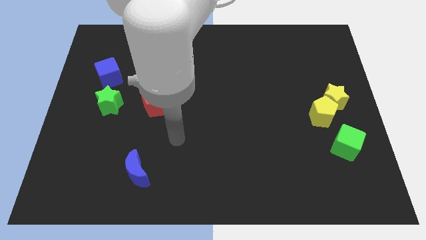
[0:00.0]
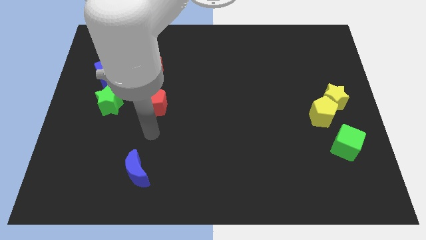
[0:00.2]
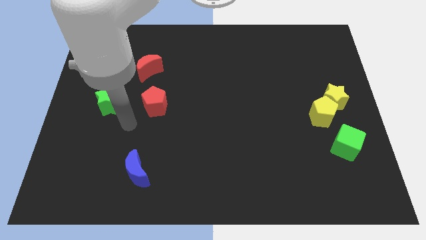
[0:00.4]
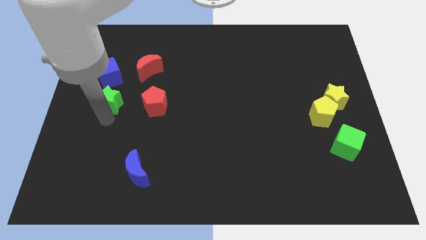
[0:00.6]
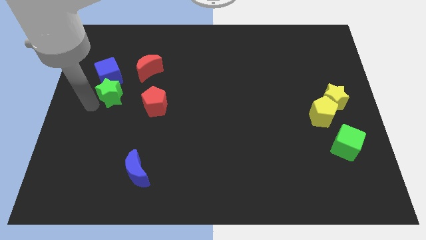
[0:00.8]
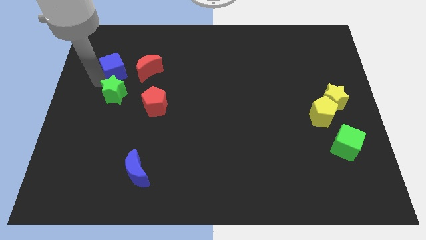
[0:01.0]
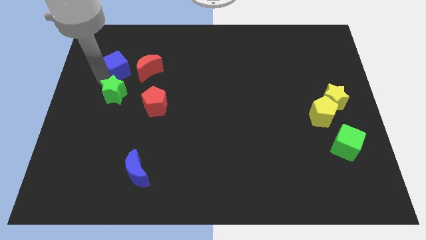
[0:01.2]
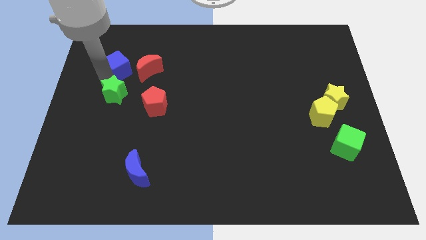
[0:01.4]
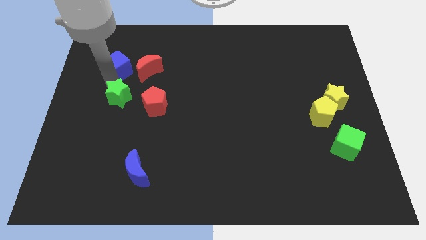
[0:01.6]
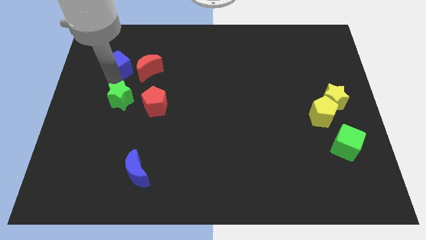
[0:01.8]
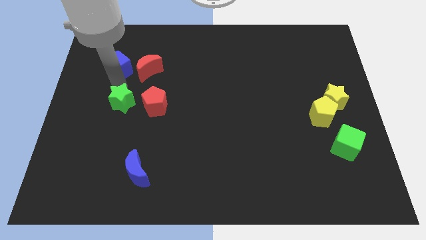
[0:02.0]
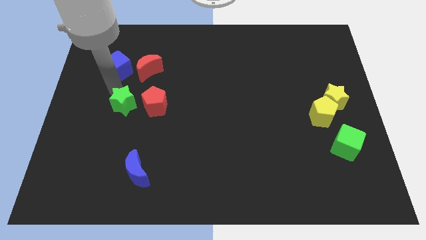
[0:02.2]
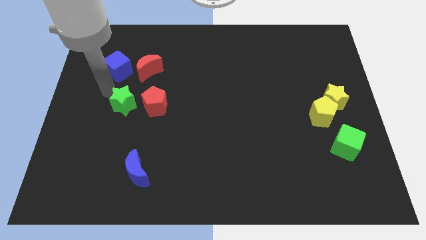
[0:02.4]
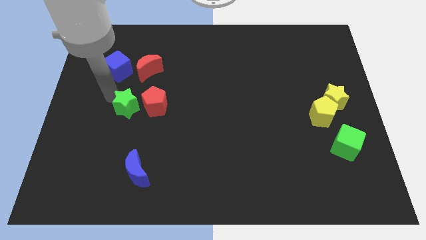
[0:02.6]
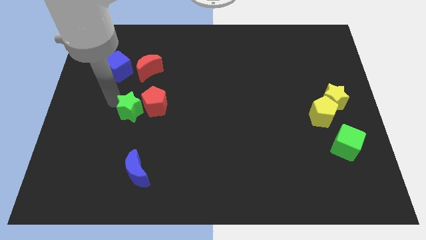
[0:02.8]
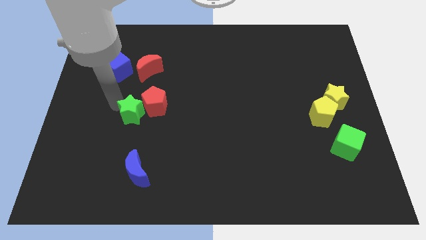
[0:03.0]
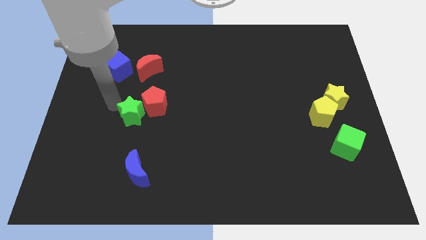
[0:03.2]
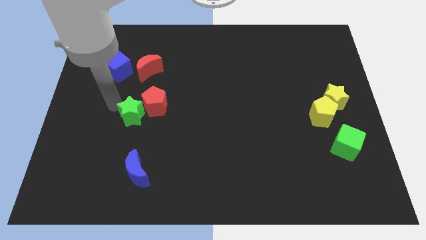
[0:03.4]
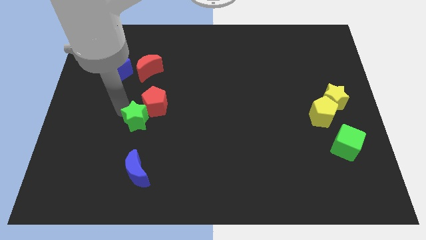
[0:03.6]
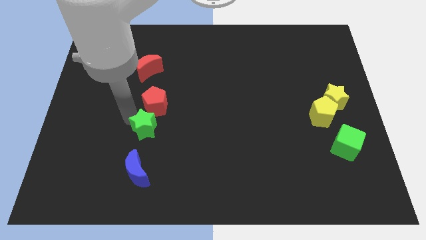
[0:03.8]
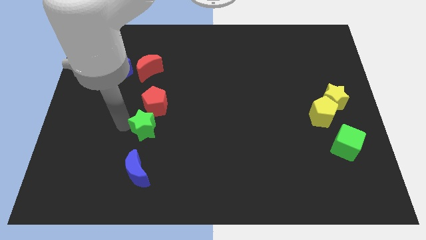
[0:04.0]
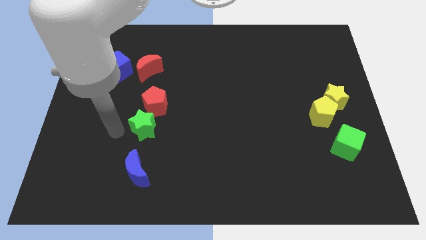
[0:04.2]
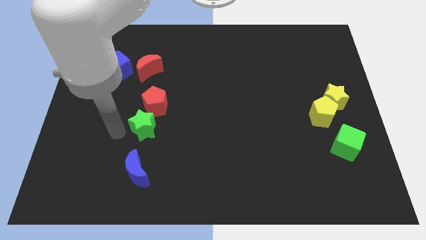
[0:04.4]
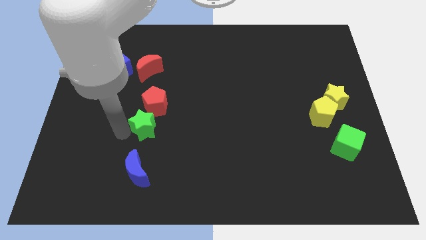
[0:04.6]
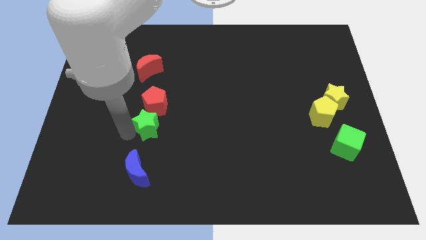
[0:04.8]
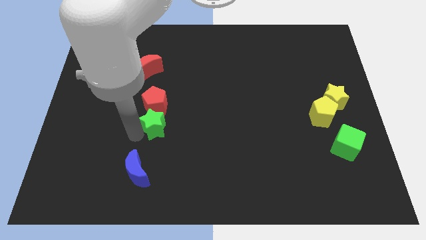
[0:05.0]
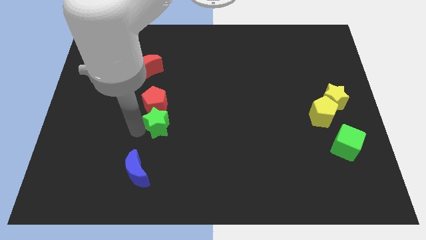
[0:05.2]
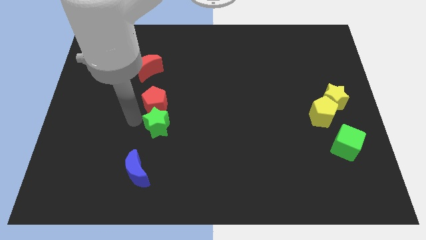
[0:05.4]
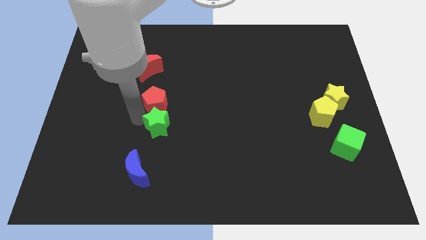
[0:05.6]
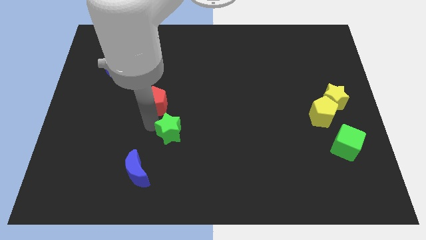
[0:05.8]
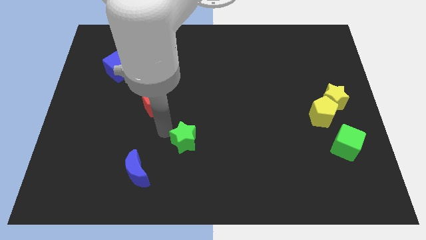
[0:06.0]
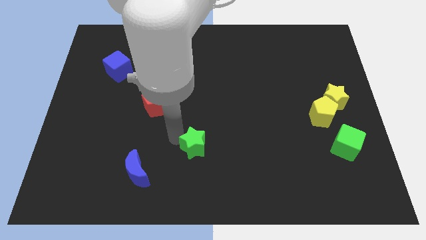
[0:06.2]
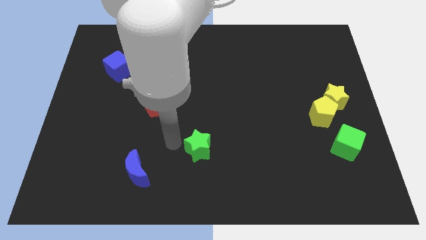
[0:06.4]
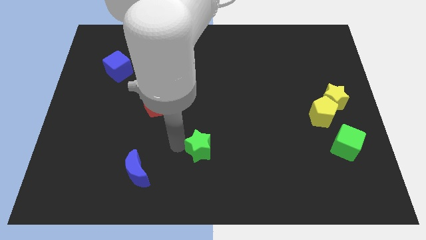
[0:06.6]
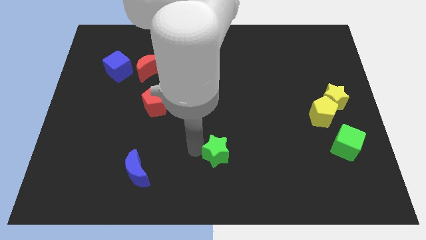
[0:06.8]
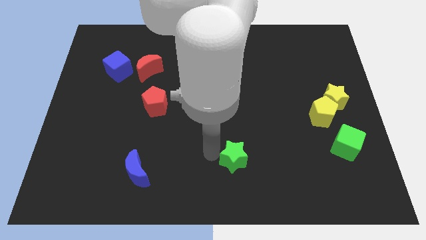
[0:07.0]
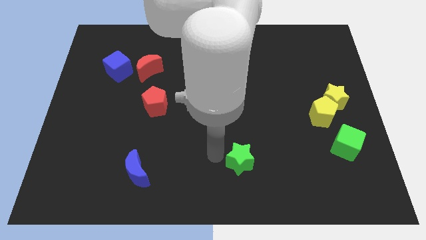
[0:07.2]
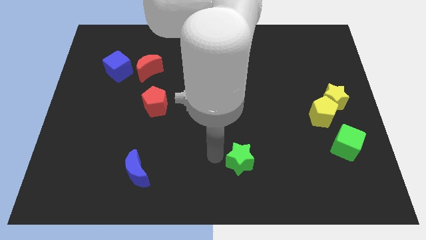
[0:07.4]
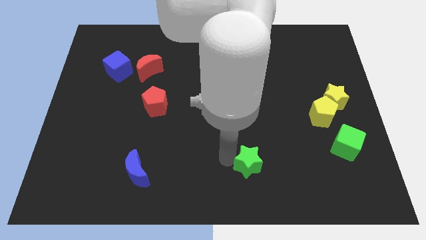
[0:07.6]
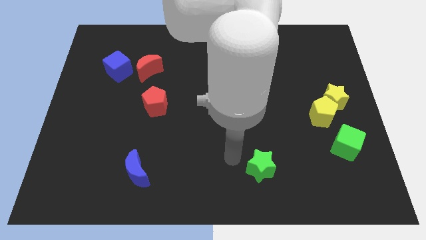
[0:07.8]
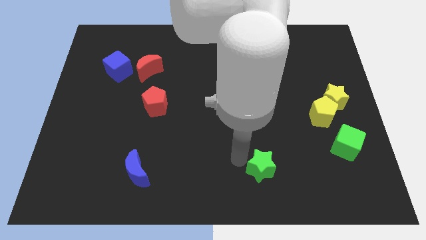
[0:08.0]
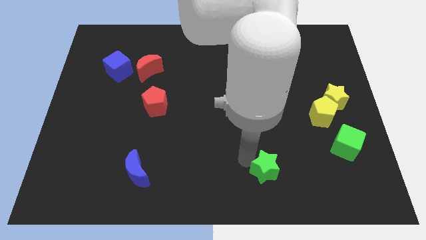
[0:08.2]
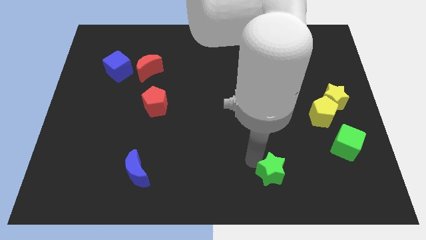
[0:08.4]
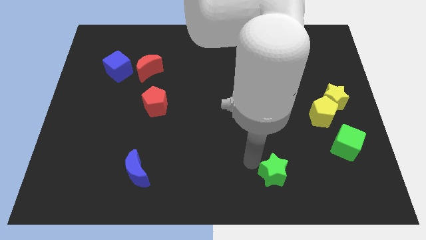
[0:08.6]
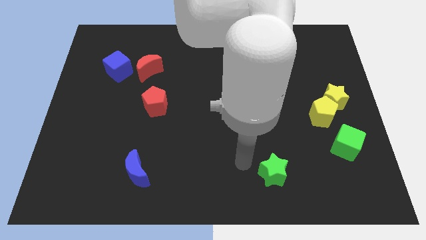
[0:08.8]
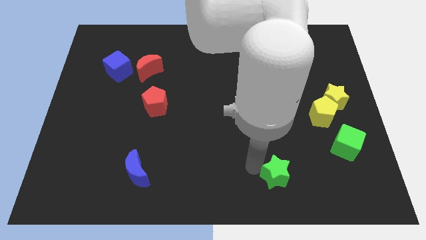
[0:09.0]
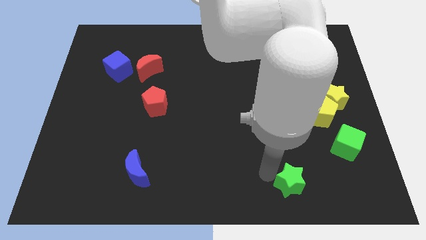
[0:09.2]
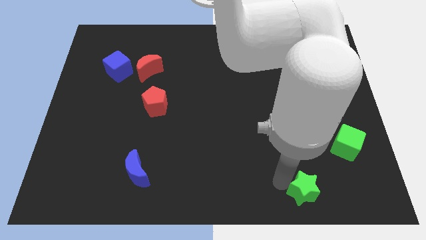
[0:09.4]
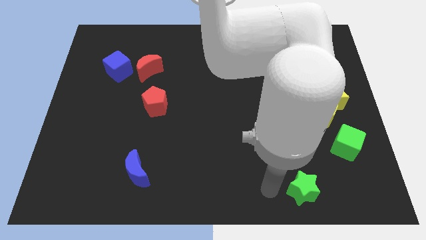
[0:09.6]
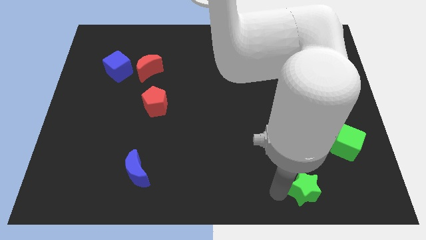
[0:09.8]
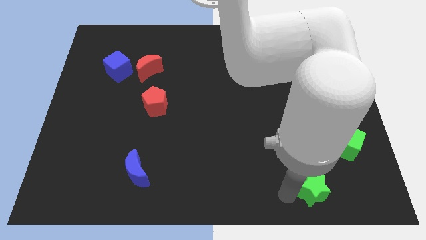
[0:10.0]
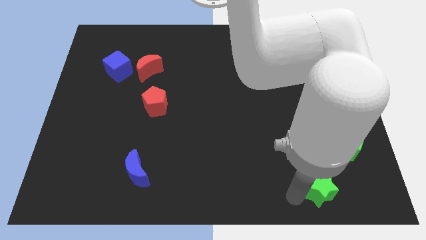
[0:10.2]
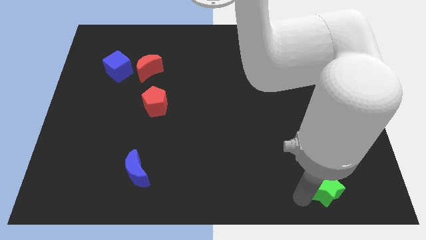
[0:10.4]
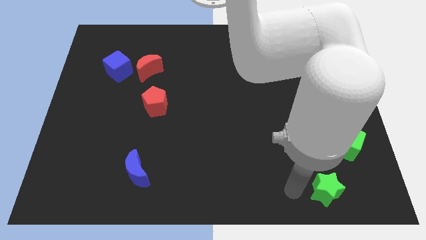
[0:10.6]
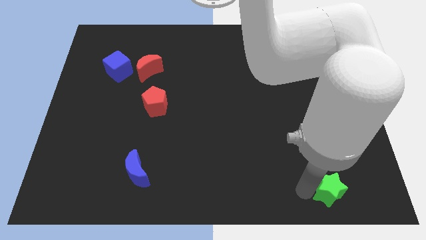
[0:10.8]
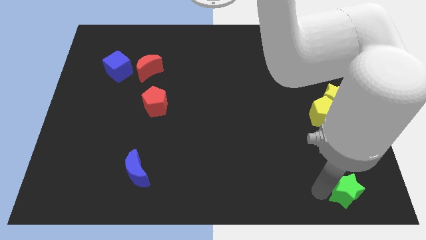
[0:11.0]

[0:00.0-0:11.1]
slide the green star to the lower right corner

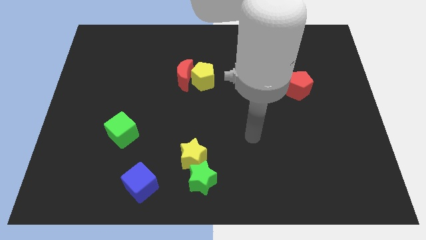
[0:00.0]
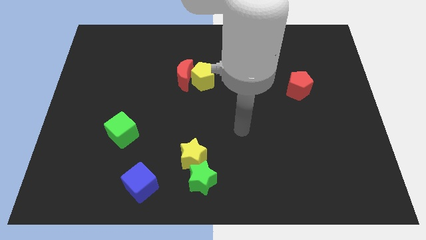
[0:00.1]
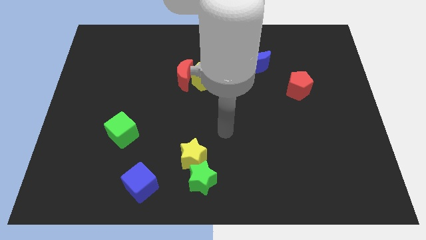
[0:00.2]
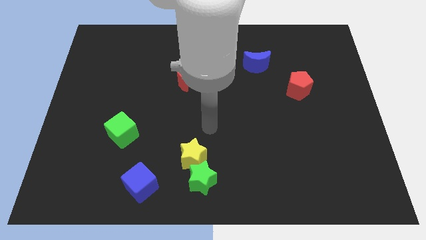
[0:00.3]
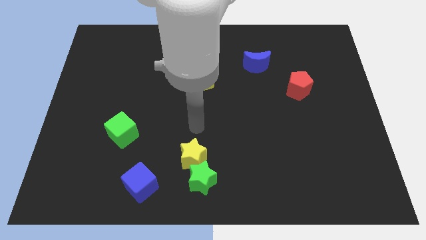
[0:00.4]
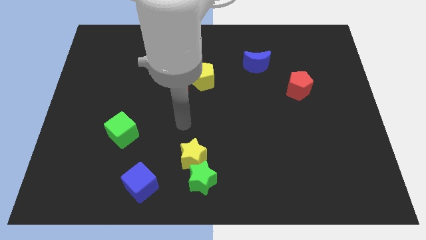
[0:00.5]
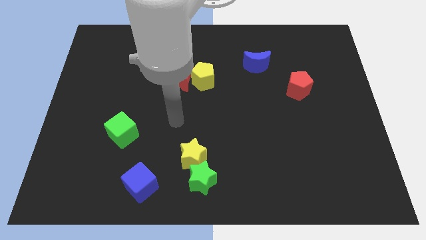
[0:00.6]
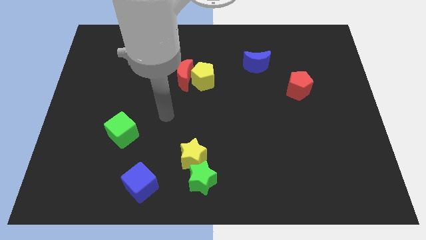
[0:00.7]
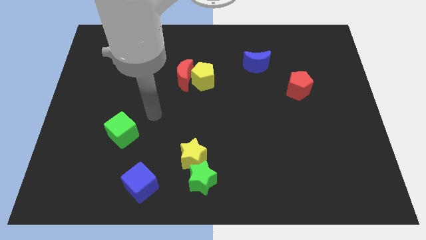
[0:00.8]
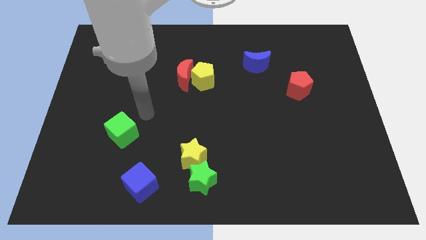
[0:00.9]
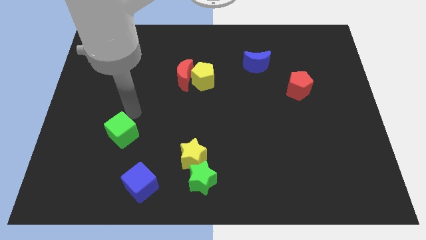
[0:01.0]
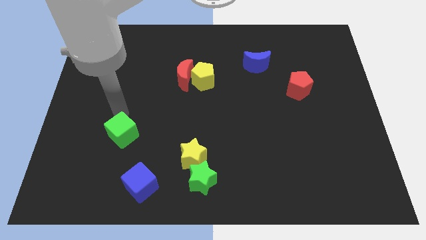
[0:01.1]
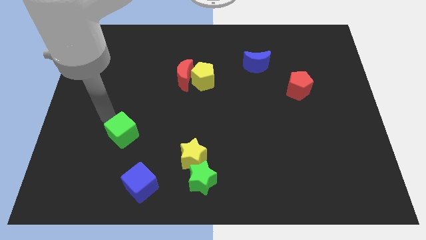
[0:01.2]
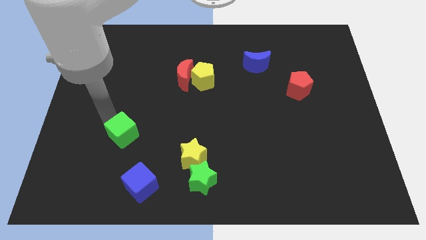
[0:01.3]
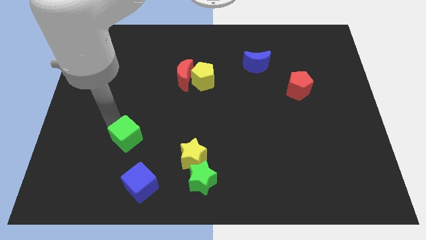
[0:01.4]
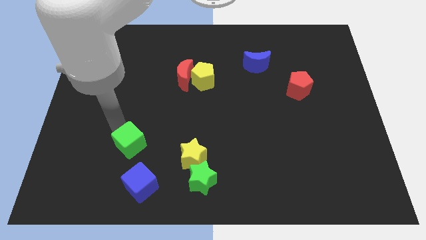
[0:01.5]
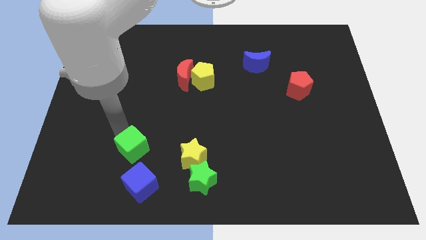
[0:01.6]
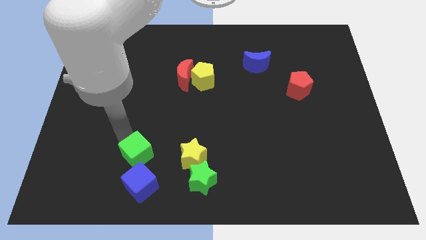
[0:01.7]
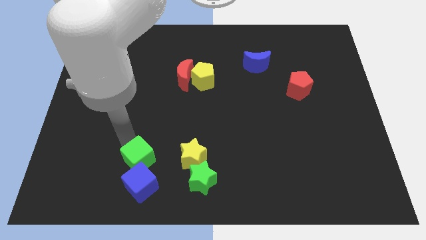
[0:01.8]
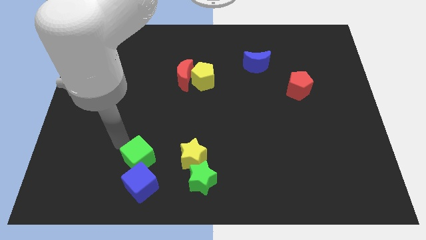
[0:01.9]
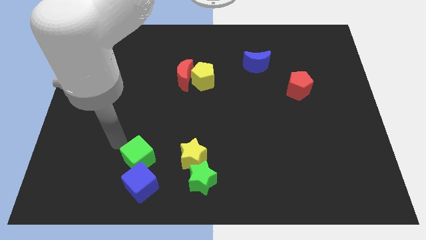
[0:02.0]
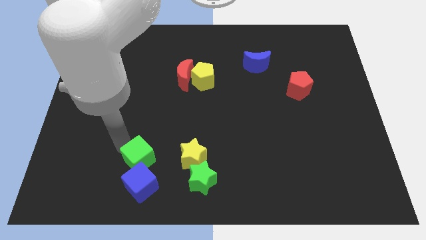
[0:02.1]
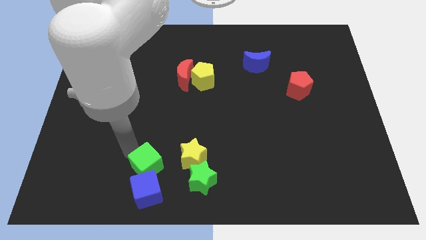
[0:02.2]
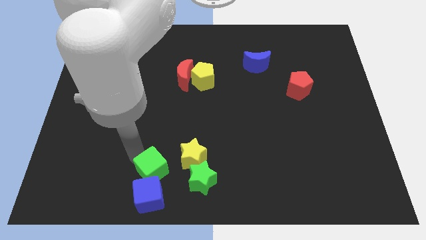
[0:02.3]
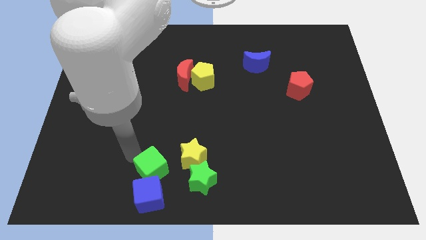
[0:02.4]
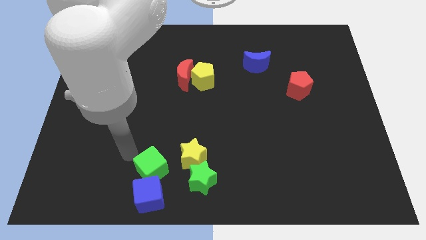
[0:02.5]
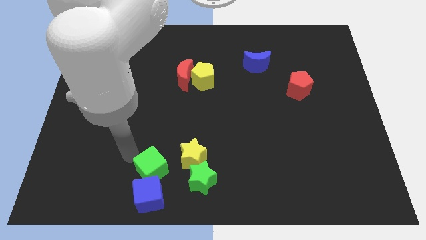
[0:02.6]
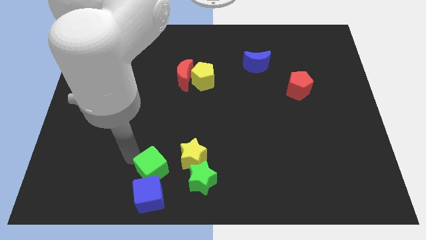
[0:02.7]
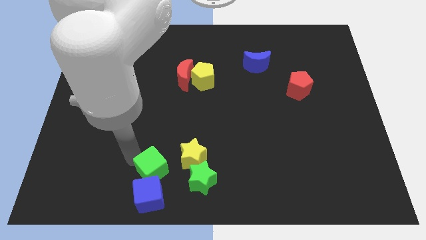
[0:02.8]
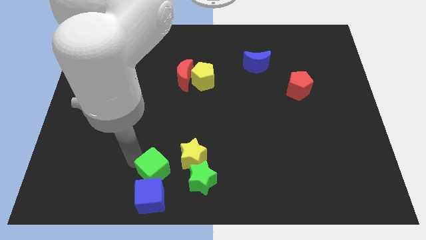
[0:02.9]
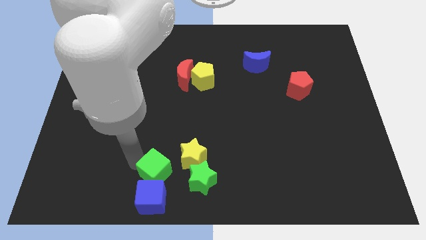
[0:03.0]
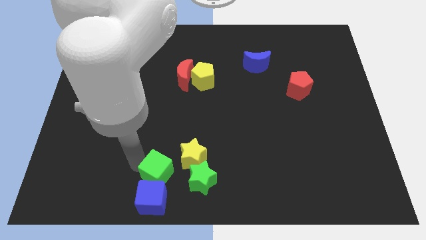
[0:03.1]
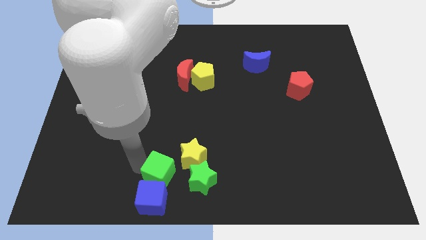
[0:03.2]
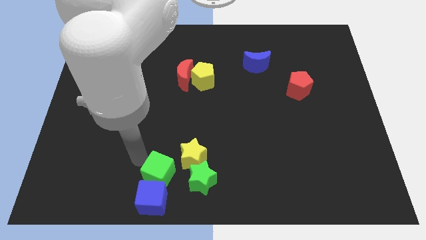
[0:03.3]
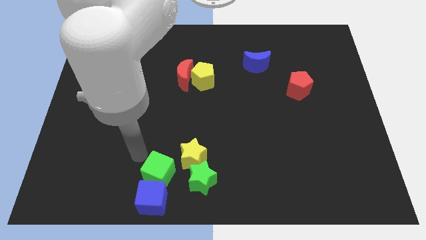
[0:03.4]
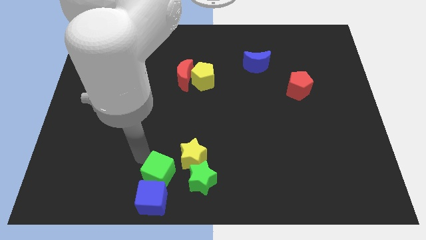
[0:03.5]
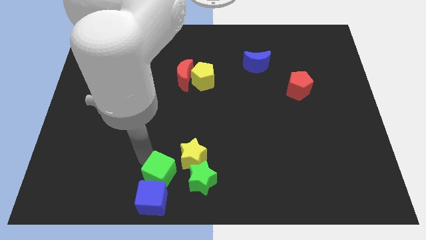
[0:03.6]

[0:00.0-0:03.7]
push the green cube to the bottom side
